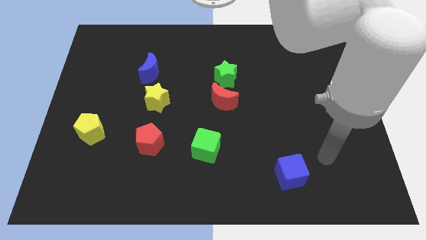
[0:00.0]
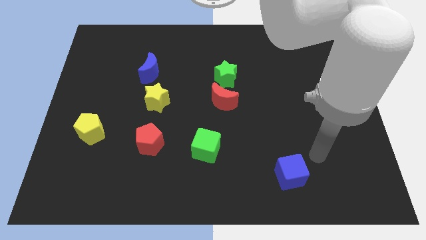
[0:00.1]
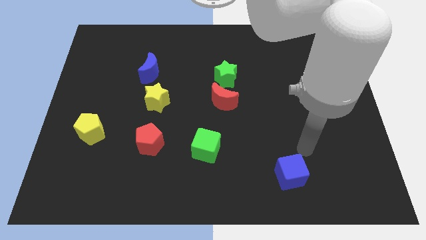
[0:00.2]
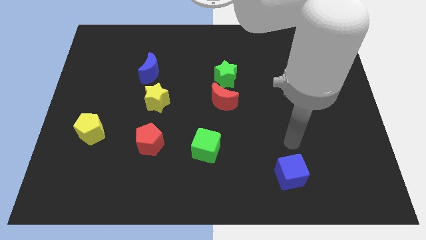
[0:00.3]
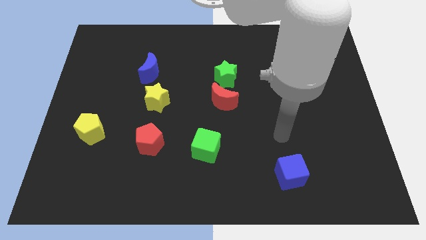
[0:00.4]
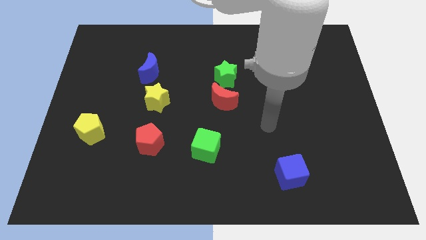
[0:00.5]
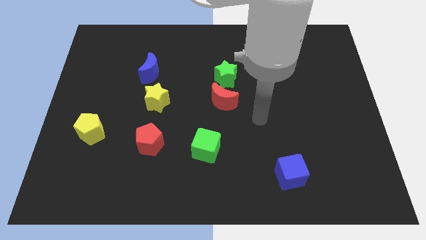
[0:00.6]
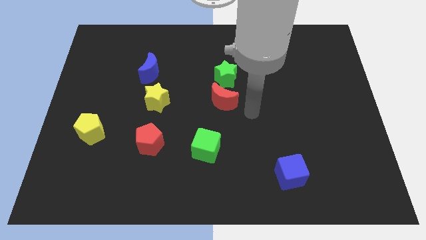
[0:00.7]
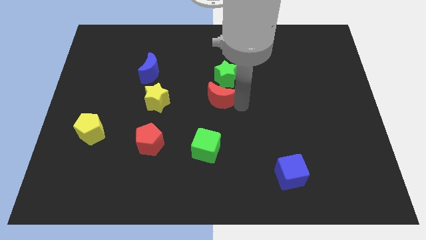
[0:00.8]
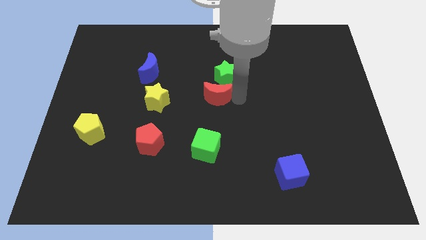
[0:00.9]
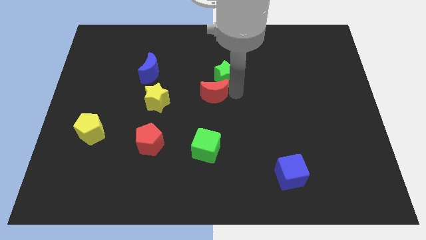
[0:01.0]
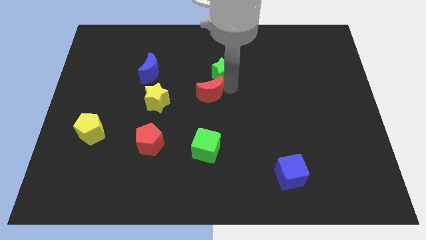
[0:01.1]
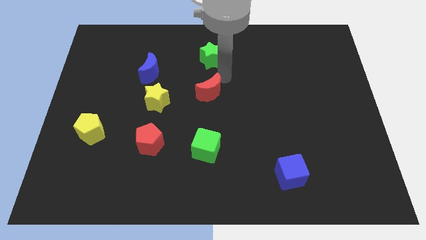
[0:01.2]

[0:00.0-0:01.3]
move the red moon away from the green star

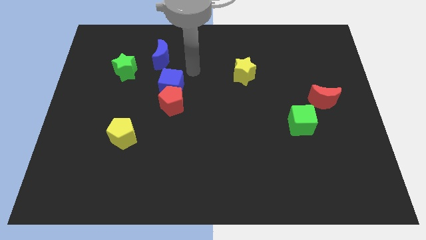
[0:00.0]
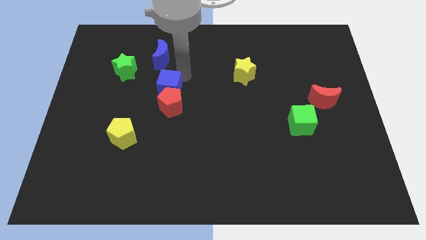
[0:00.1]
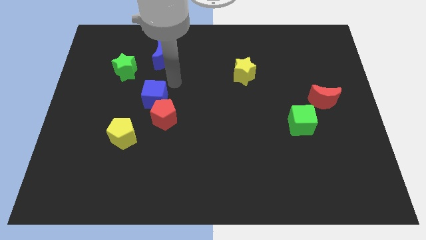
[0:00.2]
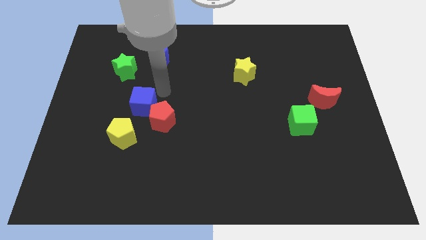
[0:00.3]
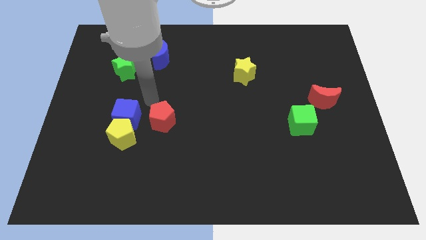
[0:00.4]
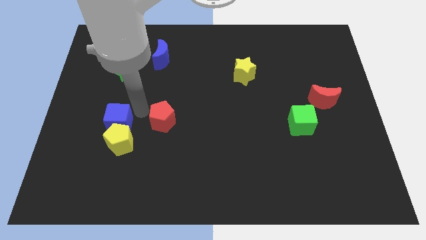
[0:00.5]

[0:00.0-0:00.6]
separate the red pentagon from the blue cube

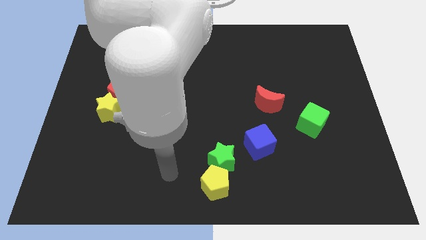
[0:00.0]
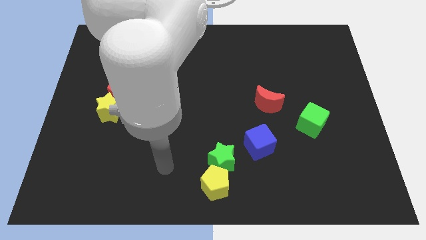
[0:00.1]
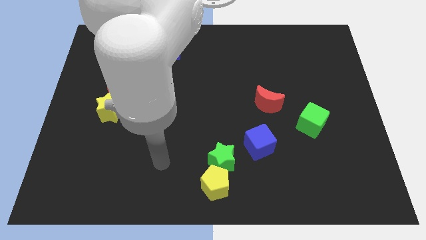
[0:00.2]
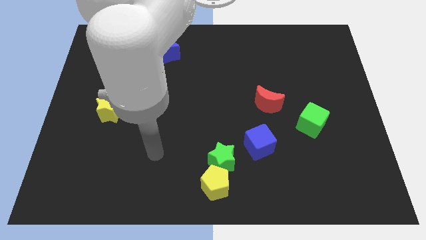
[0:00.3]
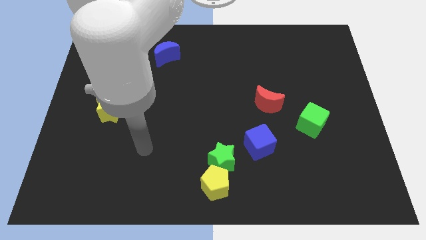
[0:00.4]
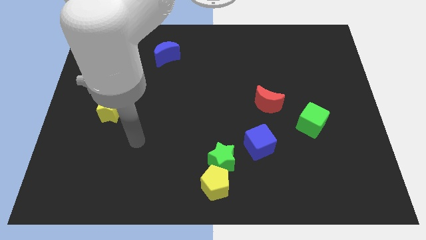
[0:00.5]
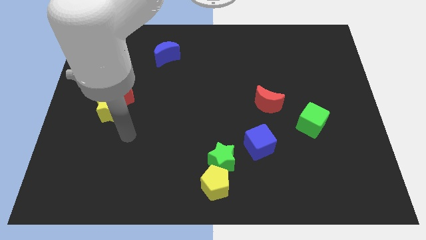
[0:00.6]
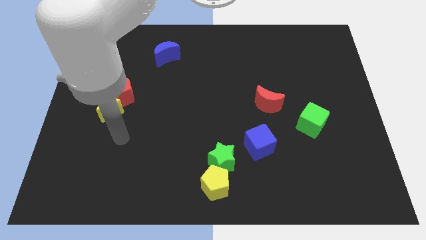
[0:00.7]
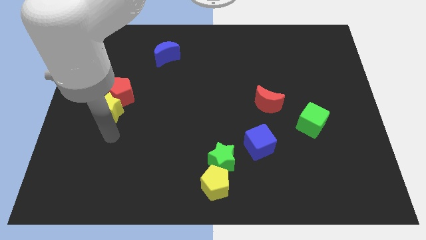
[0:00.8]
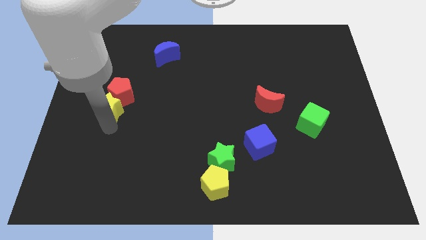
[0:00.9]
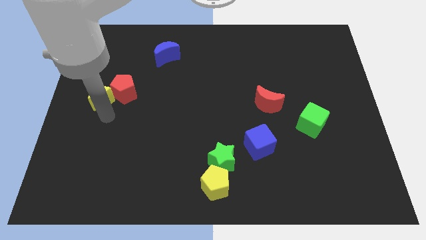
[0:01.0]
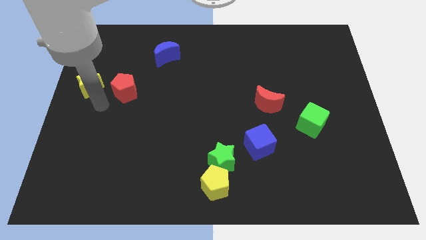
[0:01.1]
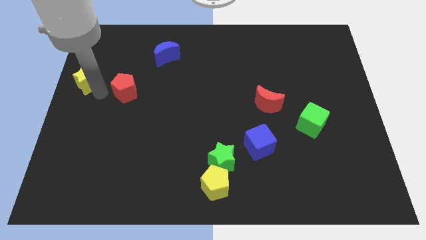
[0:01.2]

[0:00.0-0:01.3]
move the red pentagon away from the yellow star

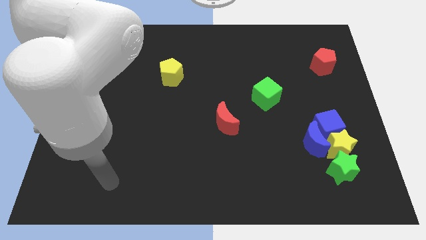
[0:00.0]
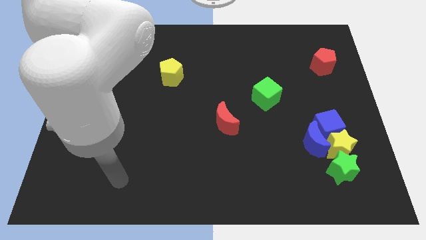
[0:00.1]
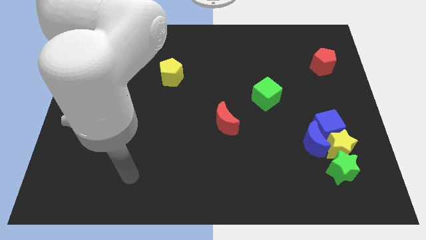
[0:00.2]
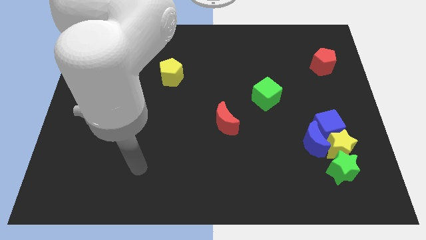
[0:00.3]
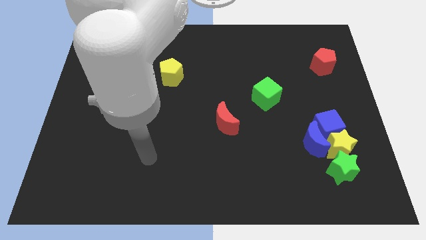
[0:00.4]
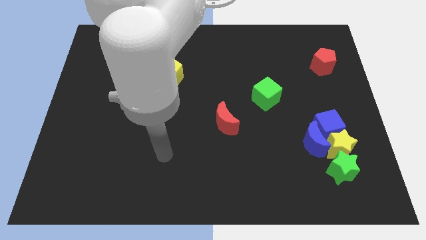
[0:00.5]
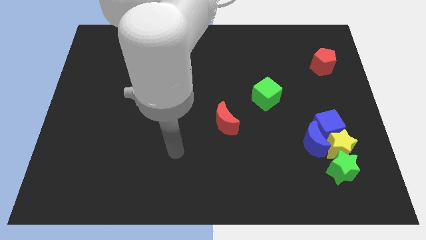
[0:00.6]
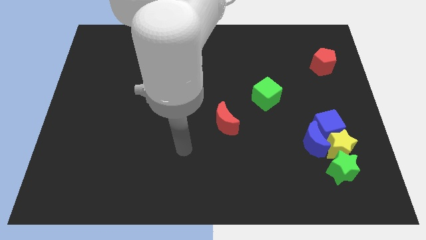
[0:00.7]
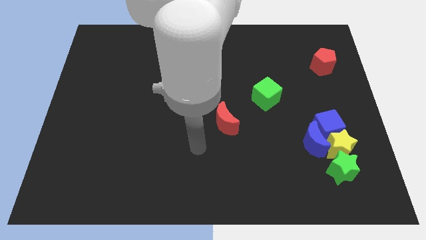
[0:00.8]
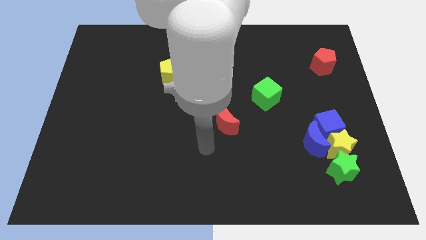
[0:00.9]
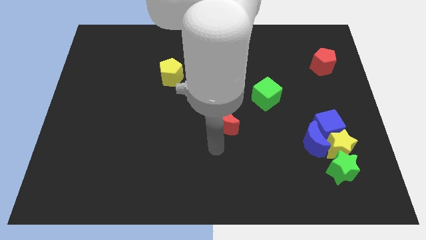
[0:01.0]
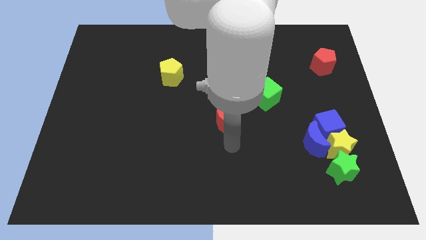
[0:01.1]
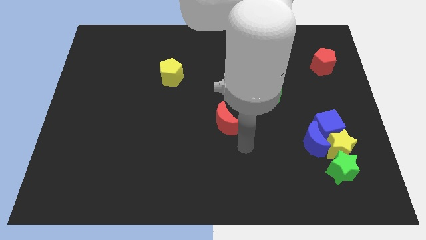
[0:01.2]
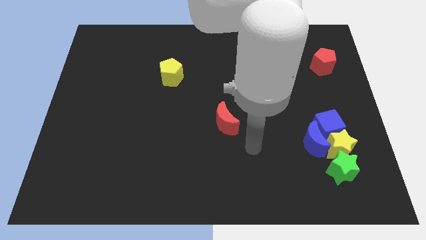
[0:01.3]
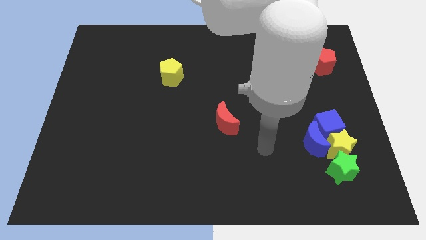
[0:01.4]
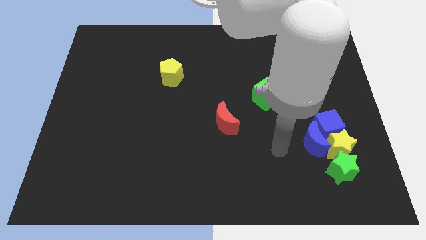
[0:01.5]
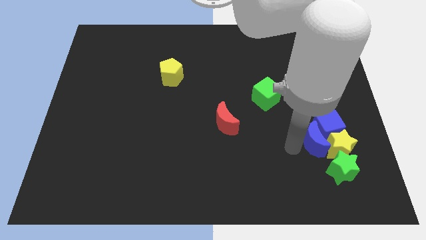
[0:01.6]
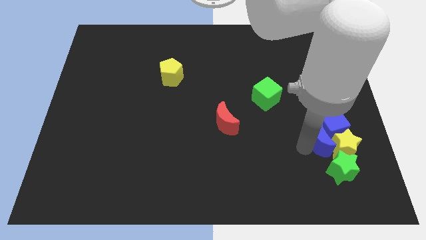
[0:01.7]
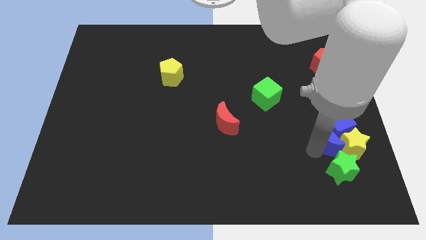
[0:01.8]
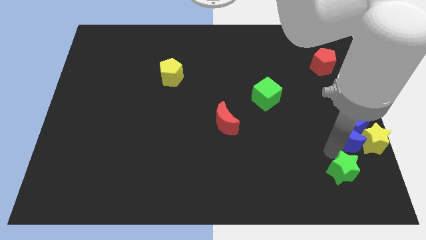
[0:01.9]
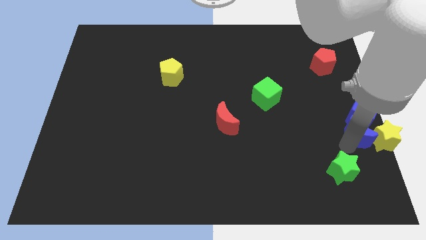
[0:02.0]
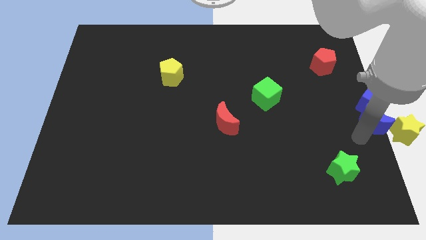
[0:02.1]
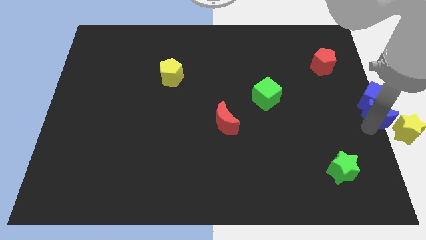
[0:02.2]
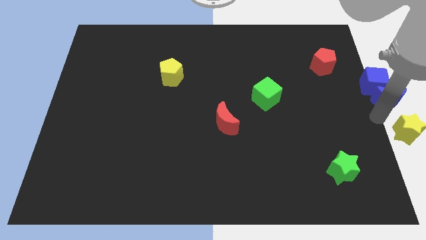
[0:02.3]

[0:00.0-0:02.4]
separate the blue cube from the blue moon and yellow star

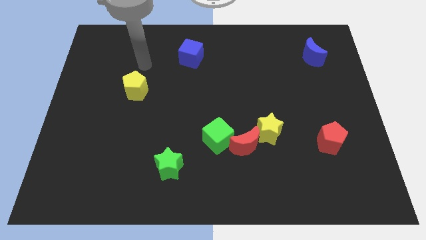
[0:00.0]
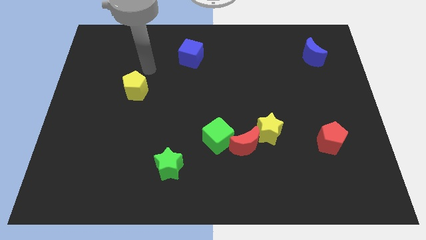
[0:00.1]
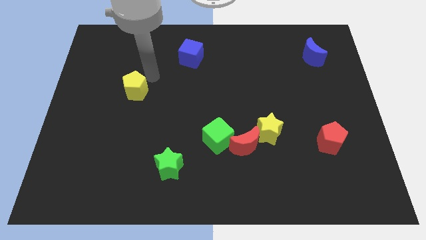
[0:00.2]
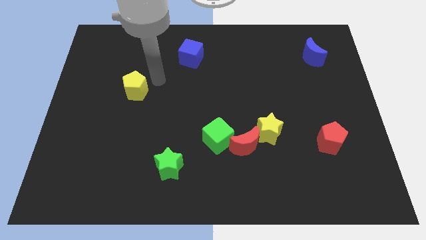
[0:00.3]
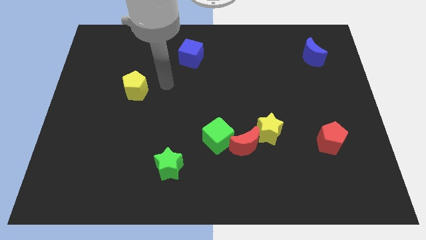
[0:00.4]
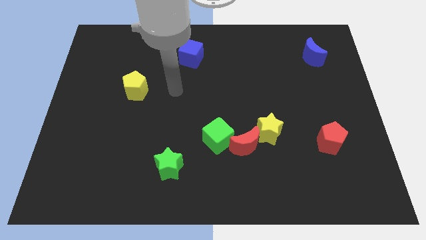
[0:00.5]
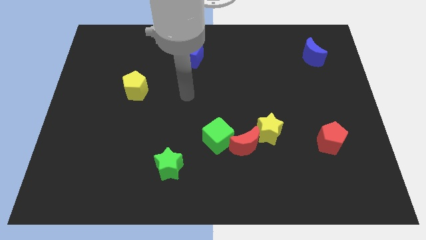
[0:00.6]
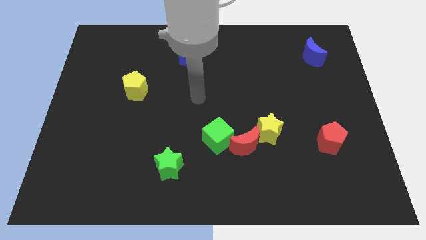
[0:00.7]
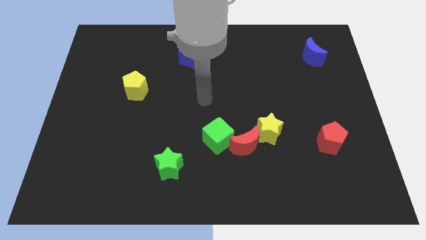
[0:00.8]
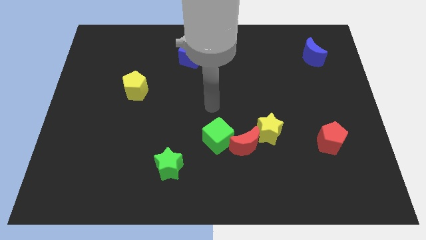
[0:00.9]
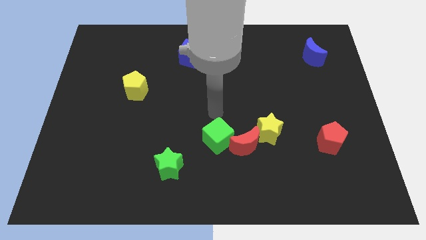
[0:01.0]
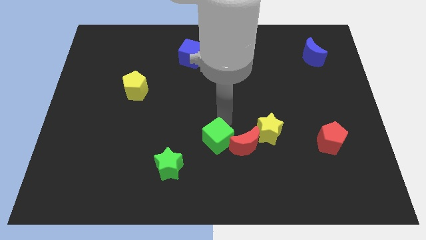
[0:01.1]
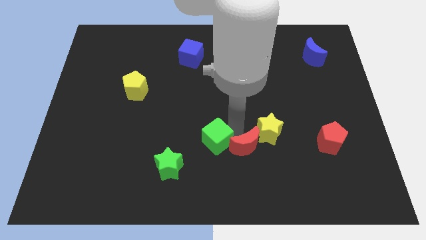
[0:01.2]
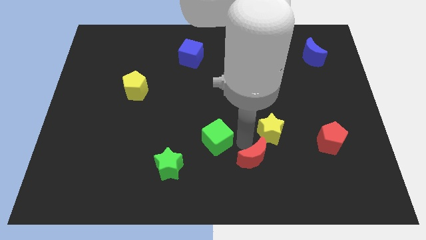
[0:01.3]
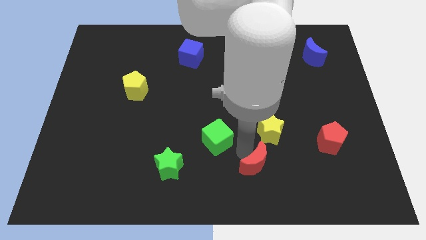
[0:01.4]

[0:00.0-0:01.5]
pull the green cube apart from the red moon

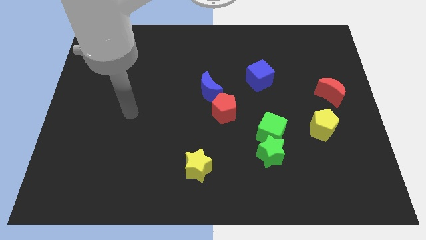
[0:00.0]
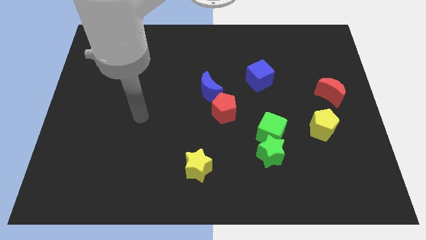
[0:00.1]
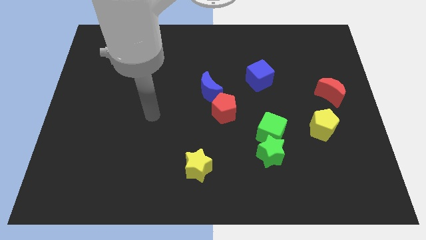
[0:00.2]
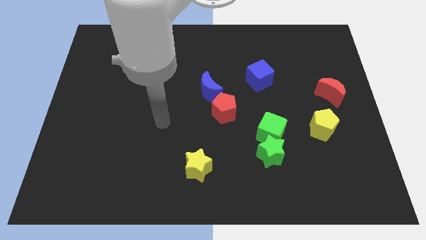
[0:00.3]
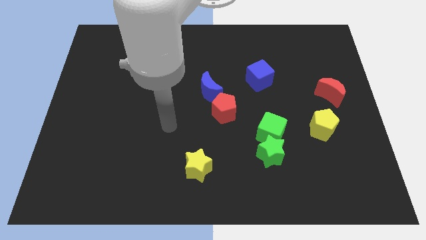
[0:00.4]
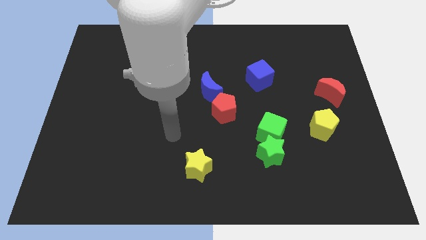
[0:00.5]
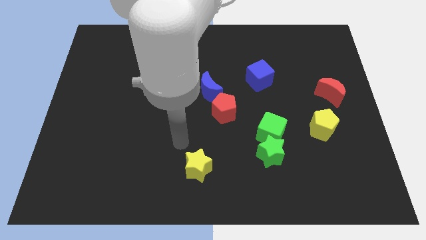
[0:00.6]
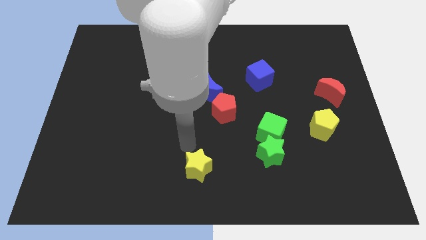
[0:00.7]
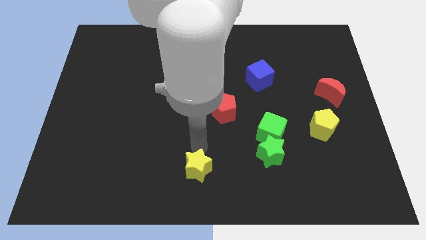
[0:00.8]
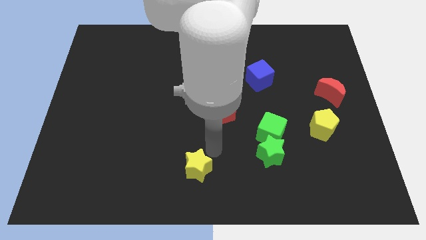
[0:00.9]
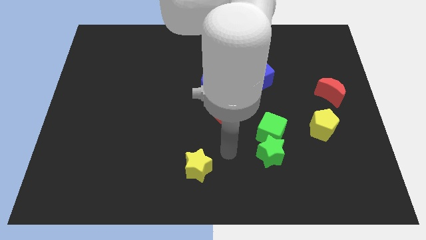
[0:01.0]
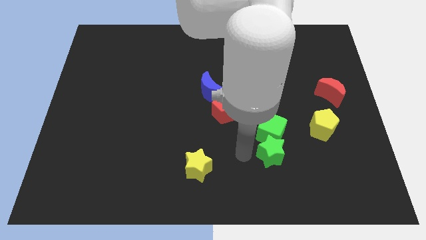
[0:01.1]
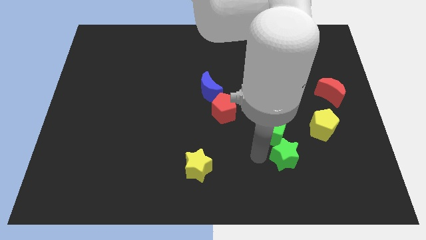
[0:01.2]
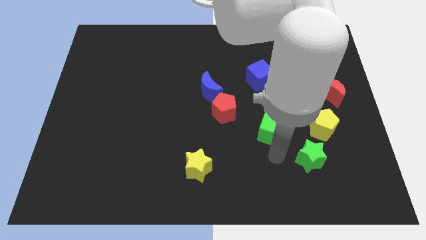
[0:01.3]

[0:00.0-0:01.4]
move the green cube away from the green star

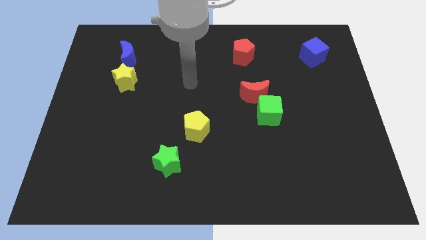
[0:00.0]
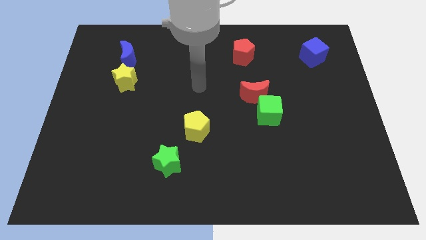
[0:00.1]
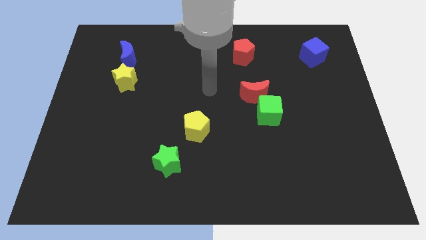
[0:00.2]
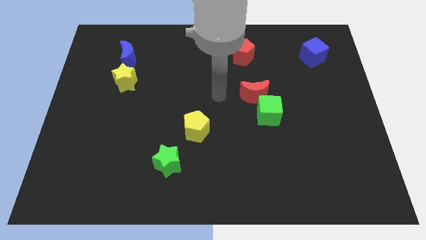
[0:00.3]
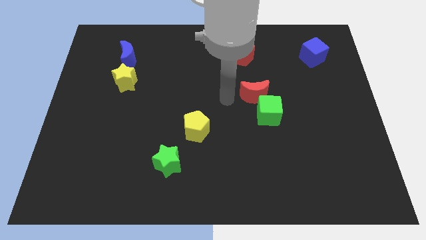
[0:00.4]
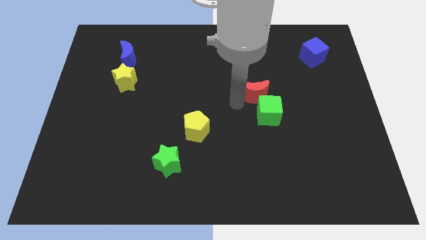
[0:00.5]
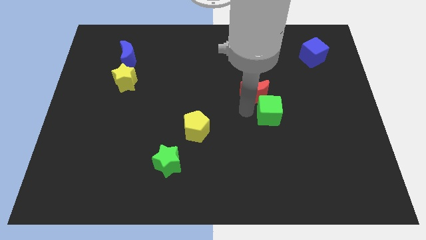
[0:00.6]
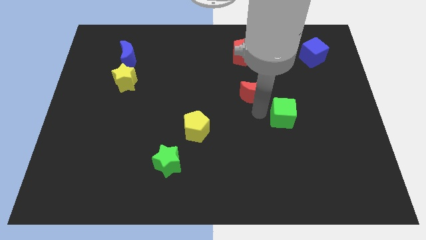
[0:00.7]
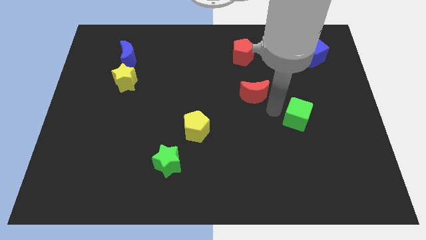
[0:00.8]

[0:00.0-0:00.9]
pull the red moon apart from the green cube
